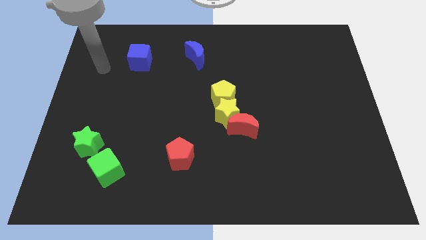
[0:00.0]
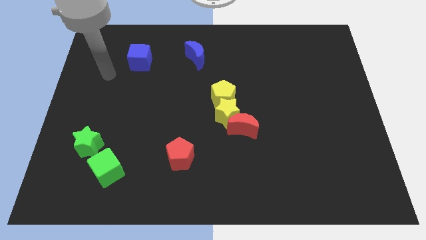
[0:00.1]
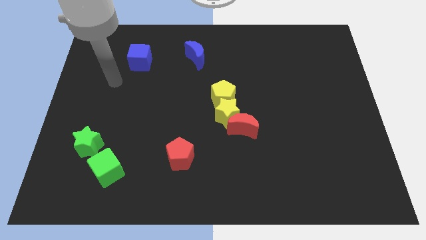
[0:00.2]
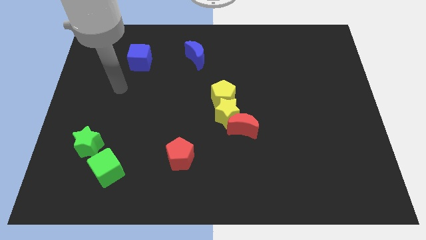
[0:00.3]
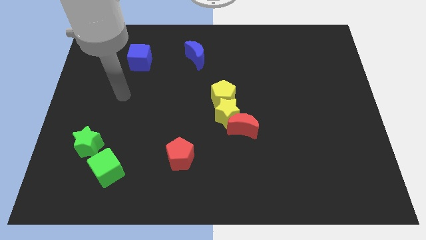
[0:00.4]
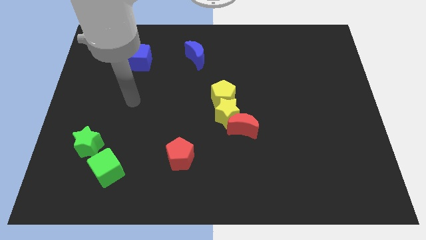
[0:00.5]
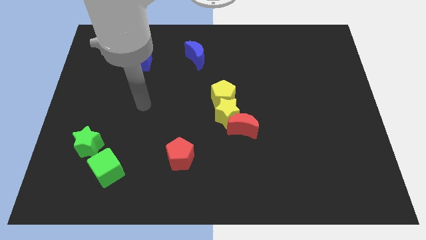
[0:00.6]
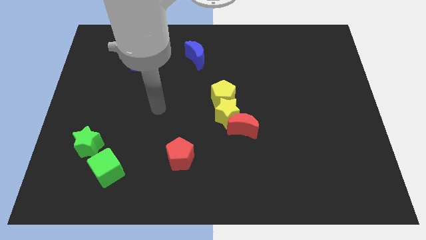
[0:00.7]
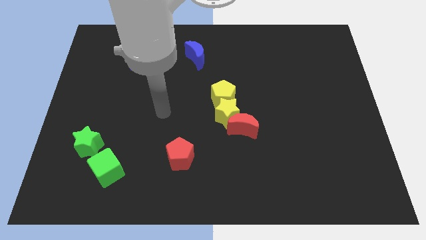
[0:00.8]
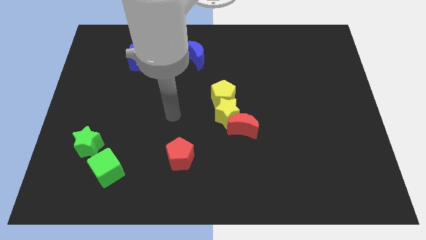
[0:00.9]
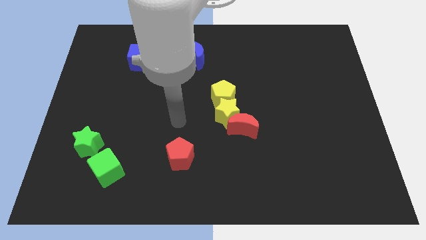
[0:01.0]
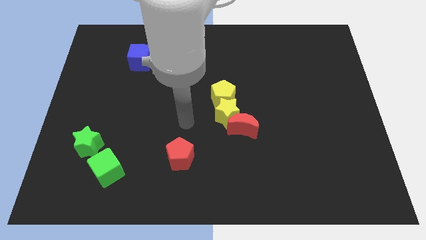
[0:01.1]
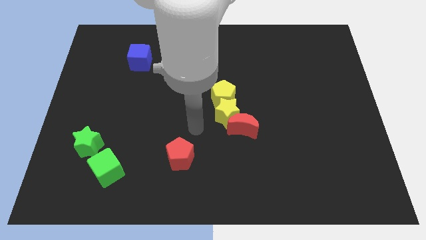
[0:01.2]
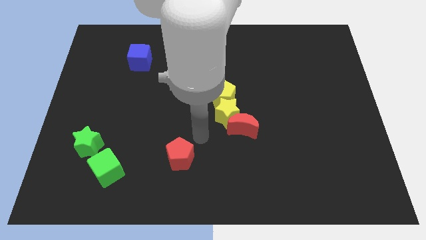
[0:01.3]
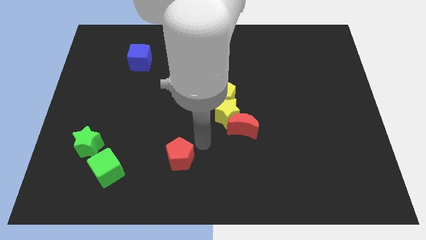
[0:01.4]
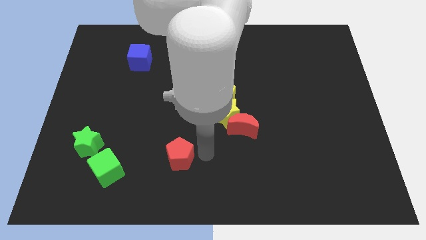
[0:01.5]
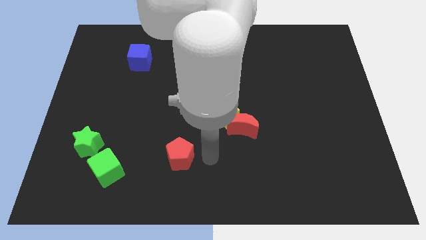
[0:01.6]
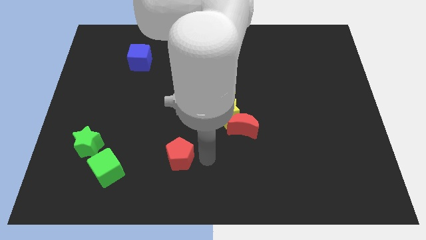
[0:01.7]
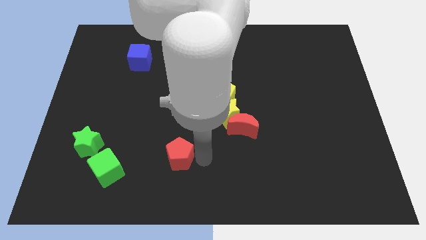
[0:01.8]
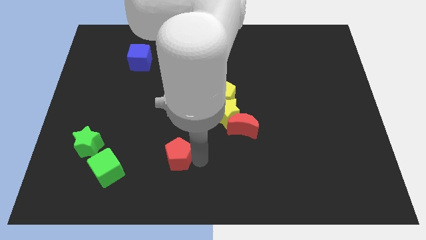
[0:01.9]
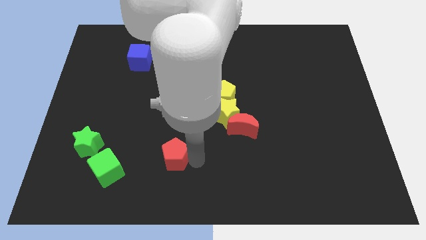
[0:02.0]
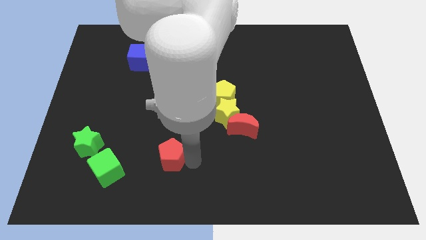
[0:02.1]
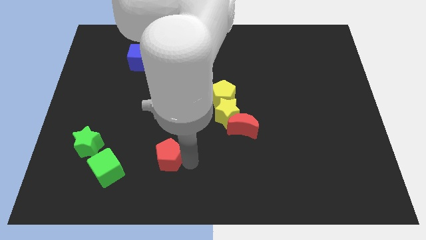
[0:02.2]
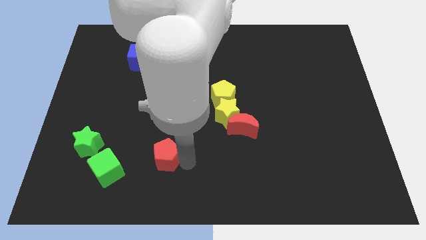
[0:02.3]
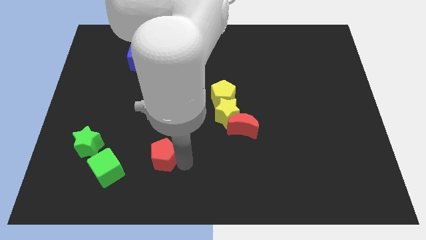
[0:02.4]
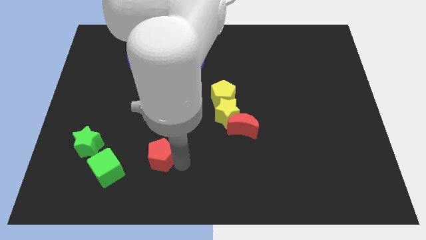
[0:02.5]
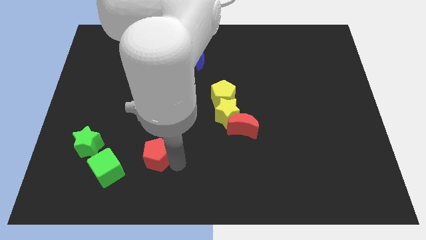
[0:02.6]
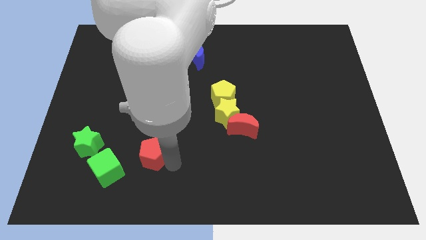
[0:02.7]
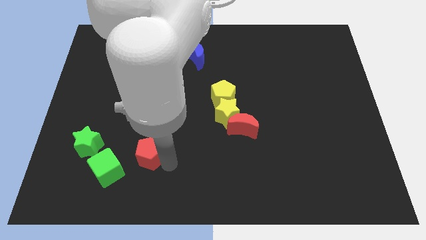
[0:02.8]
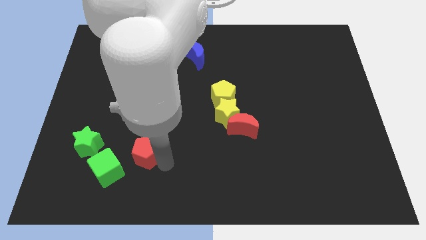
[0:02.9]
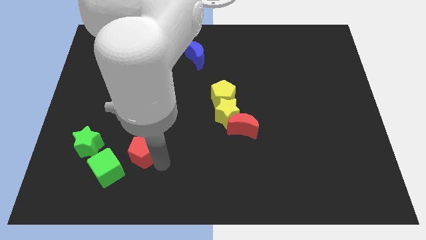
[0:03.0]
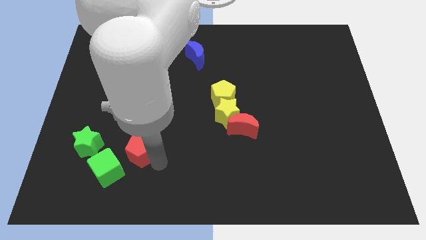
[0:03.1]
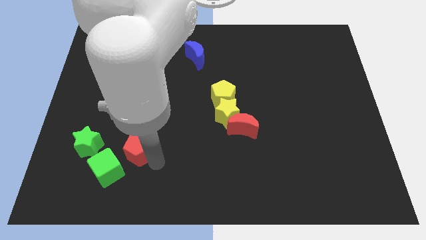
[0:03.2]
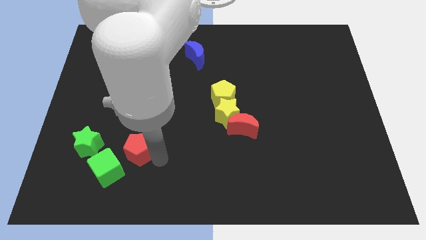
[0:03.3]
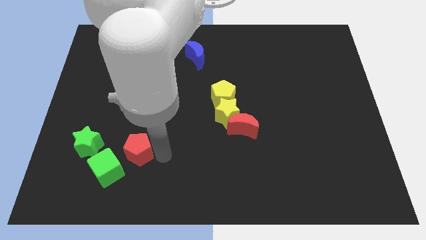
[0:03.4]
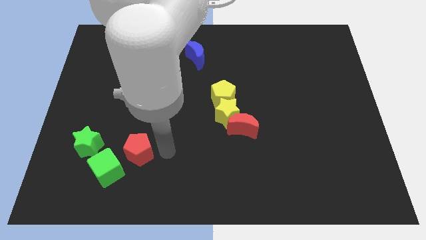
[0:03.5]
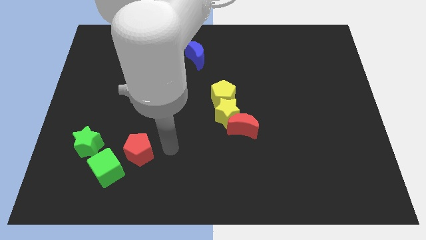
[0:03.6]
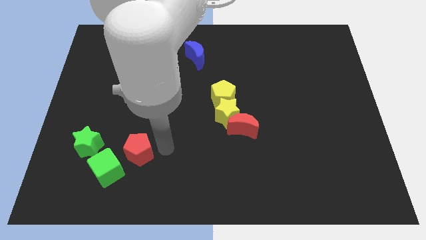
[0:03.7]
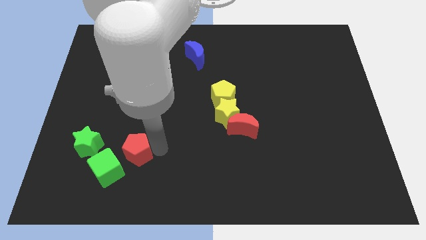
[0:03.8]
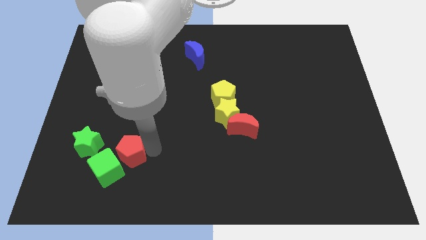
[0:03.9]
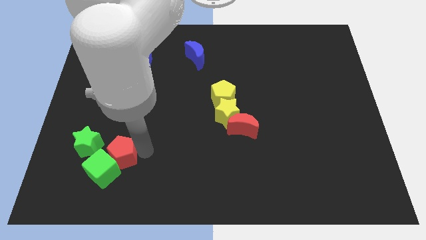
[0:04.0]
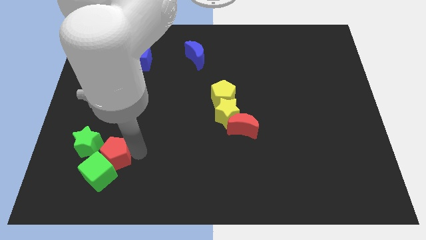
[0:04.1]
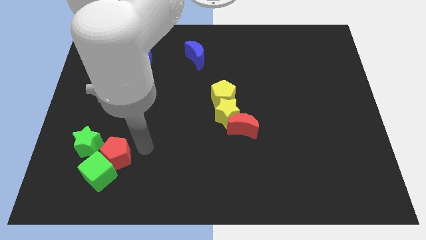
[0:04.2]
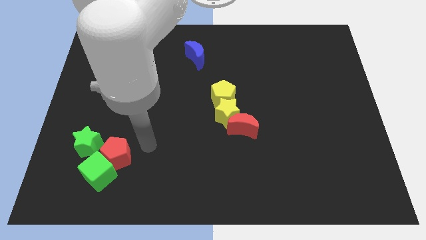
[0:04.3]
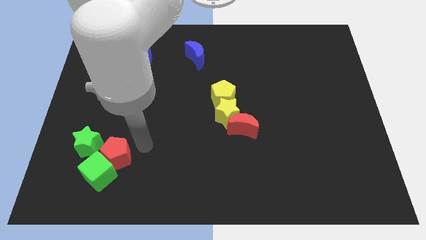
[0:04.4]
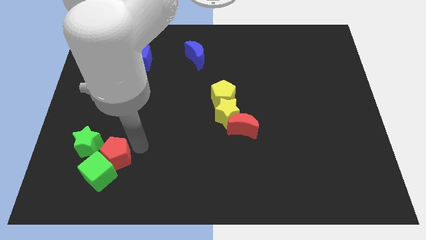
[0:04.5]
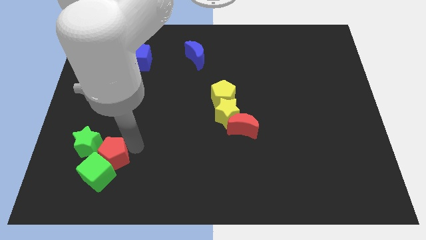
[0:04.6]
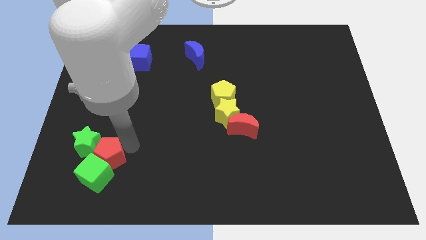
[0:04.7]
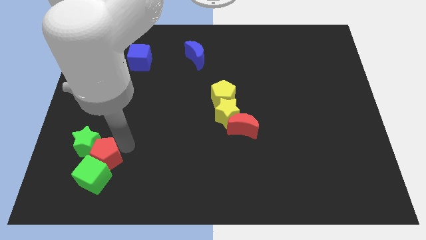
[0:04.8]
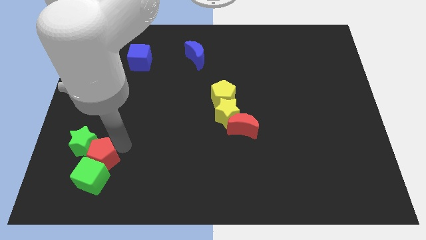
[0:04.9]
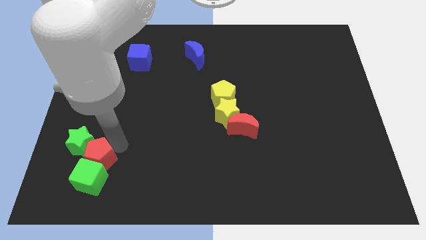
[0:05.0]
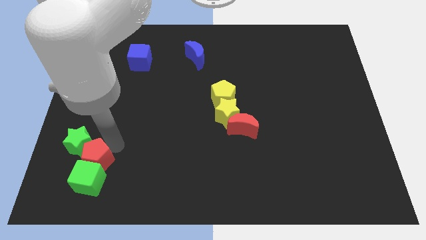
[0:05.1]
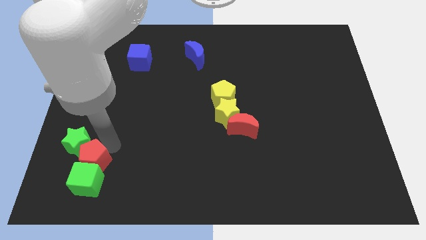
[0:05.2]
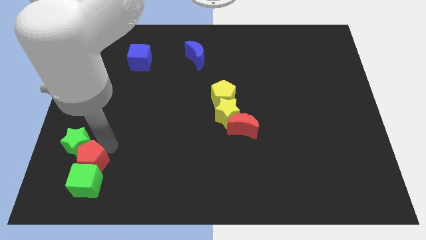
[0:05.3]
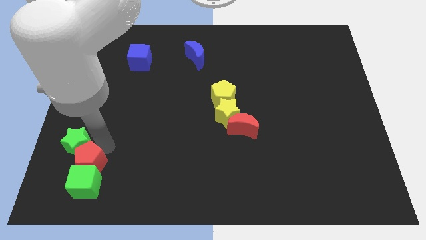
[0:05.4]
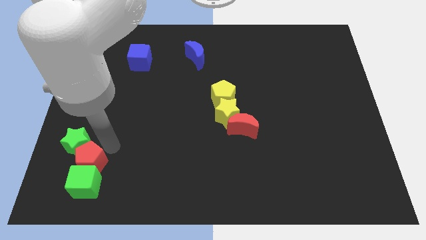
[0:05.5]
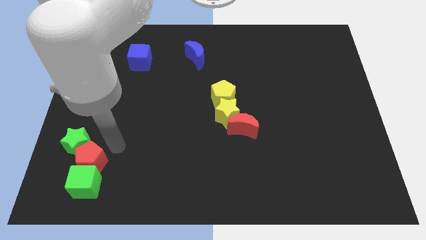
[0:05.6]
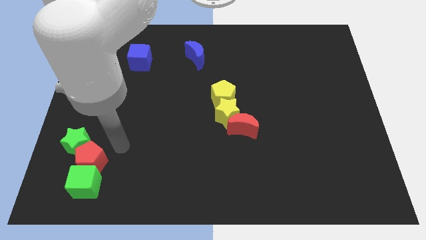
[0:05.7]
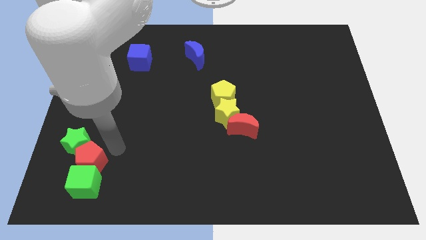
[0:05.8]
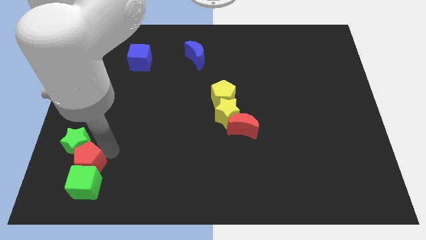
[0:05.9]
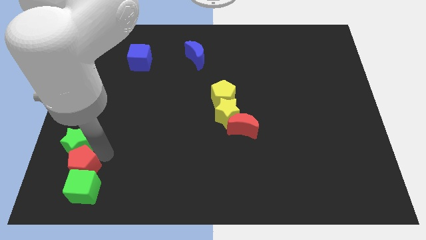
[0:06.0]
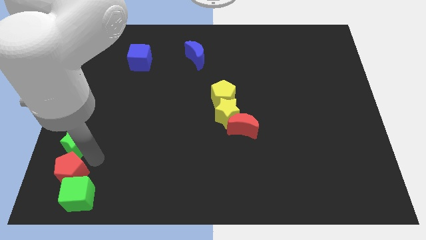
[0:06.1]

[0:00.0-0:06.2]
slide the red pentagon to the bottom left corner

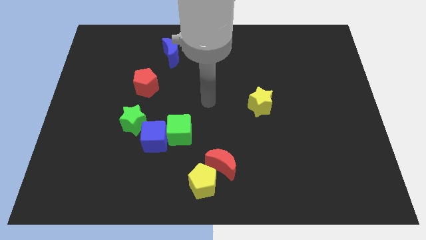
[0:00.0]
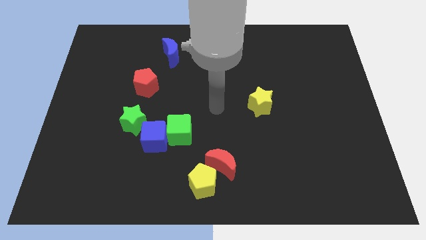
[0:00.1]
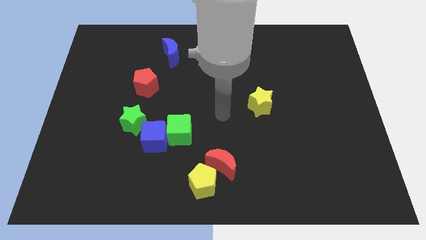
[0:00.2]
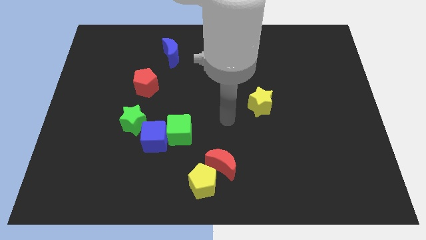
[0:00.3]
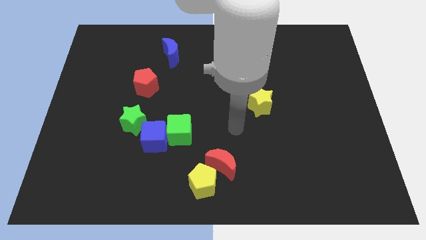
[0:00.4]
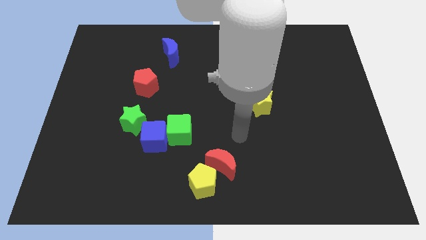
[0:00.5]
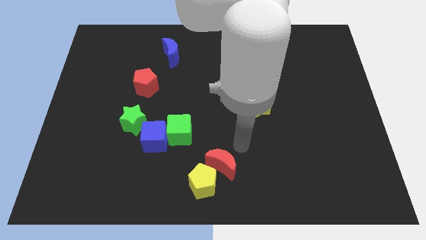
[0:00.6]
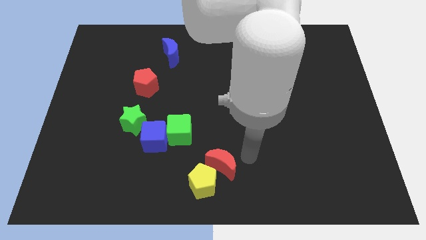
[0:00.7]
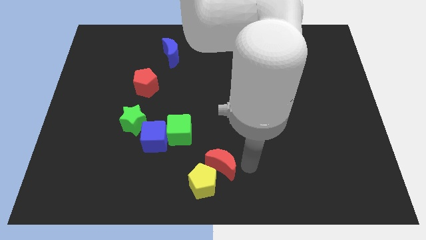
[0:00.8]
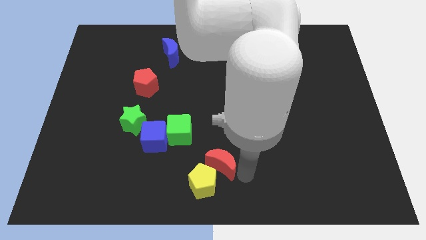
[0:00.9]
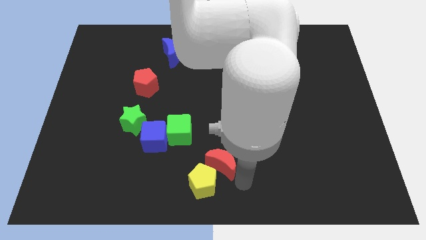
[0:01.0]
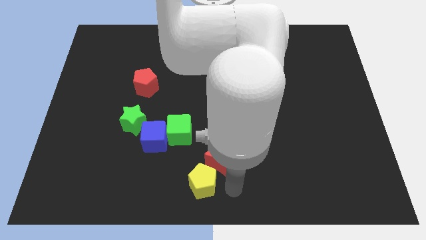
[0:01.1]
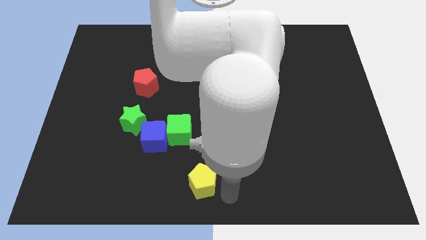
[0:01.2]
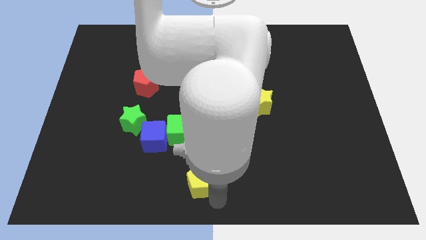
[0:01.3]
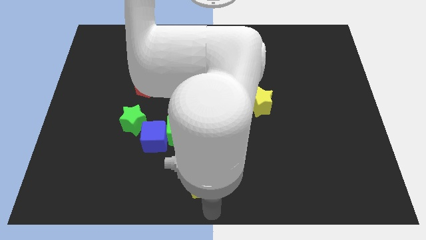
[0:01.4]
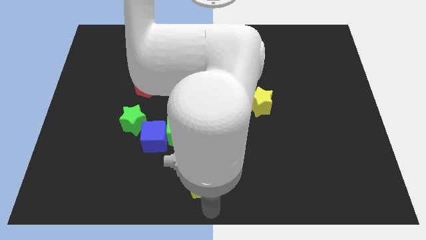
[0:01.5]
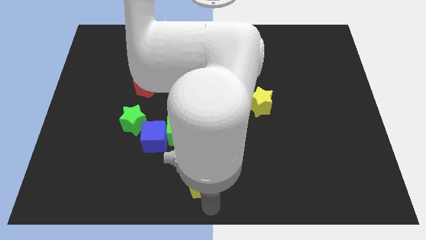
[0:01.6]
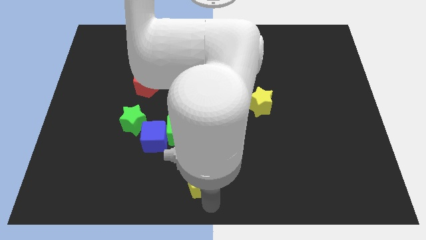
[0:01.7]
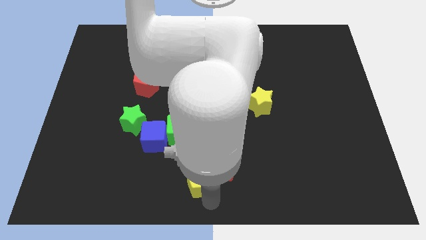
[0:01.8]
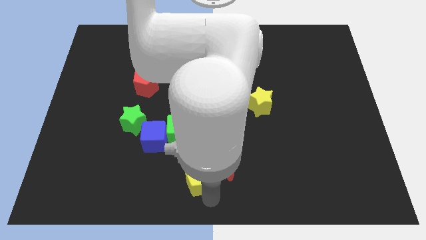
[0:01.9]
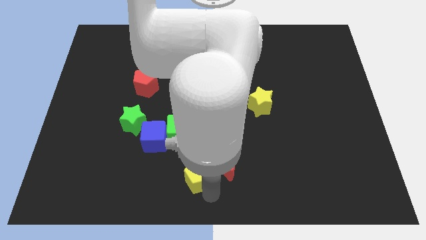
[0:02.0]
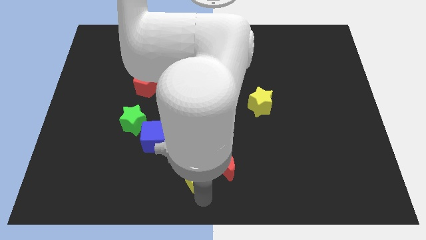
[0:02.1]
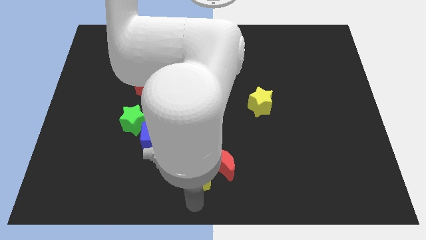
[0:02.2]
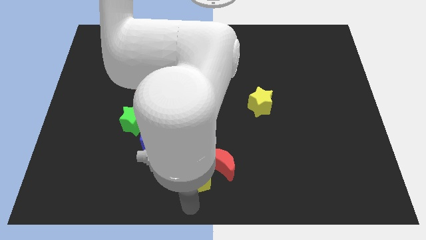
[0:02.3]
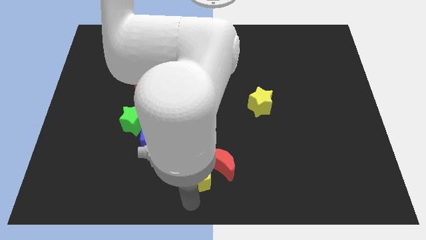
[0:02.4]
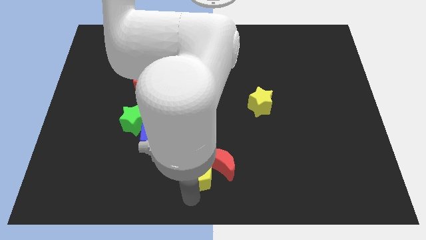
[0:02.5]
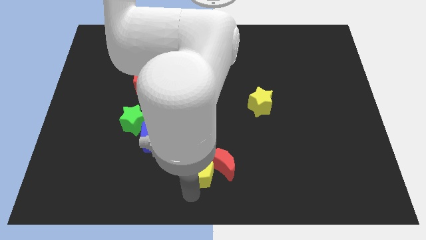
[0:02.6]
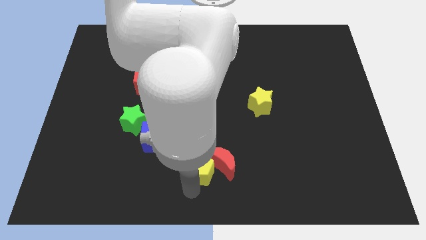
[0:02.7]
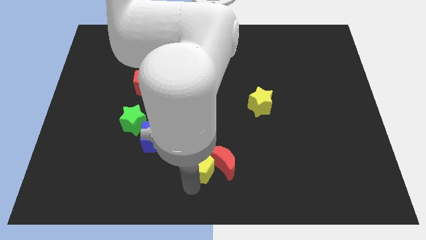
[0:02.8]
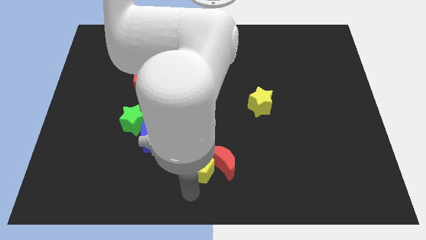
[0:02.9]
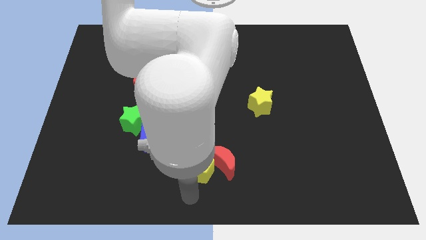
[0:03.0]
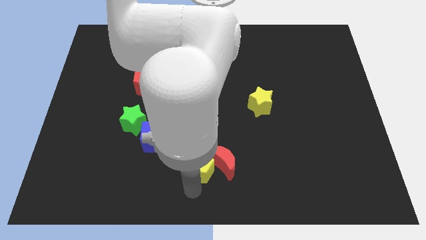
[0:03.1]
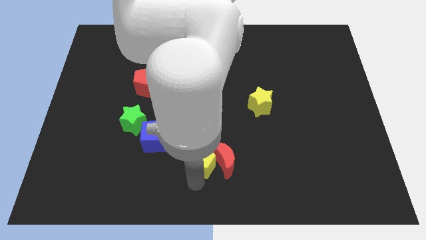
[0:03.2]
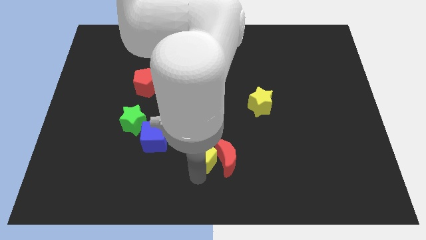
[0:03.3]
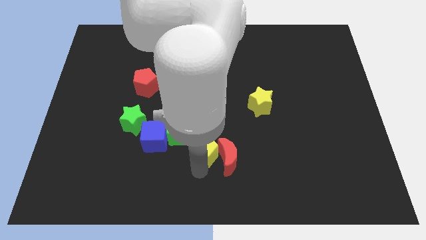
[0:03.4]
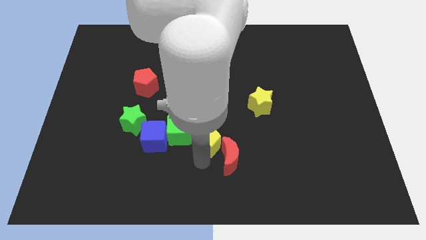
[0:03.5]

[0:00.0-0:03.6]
slide the yellow pentagon to the middle of the board
